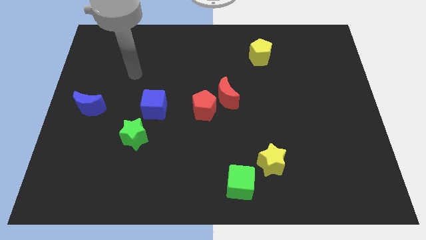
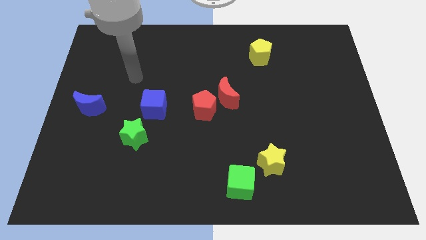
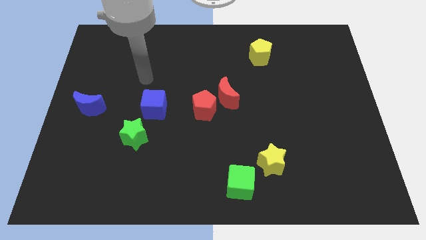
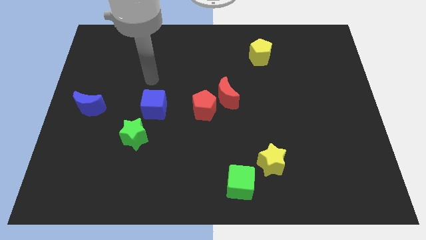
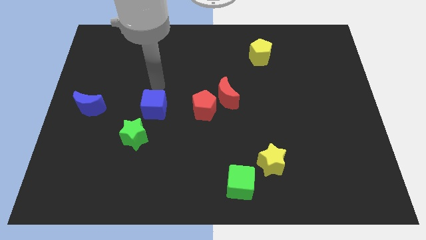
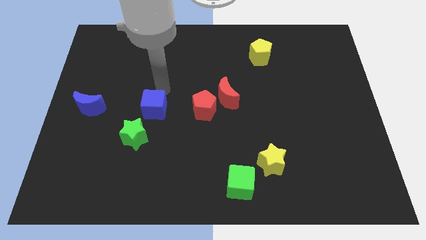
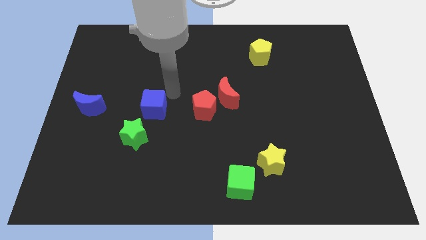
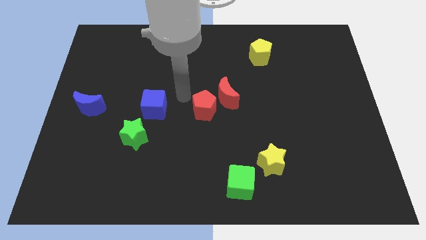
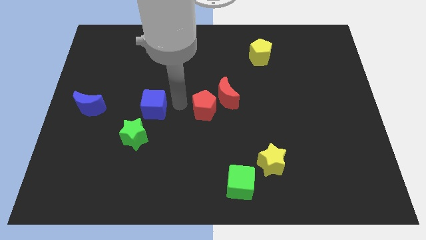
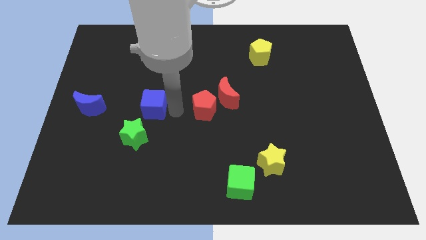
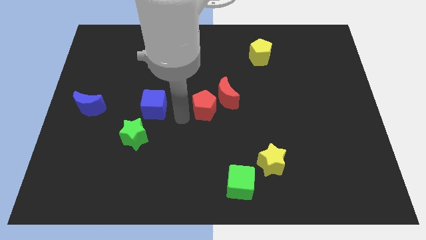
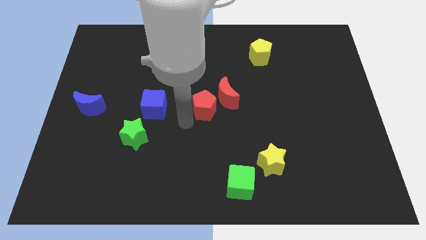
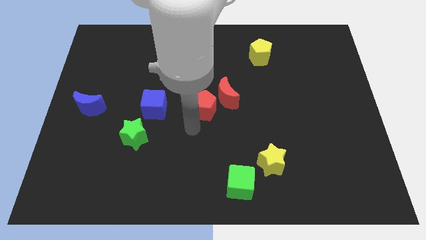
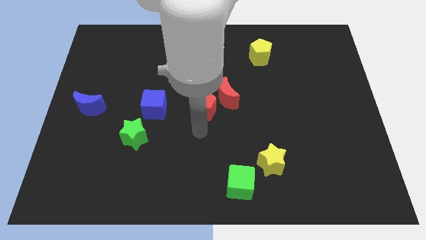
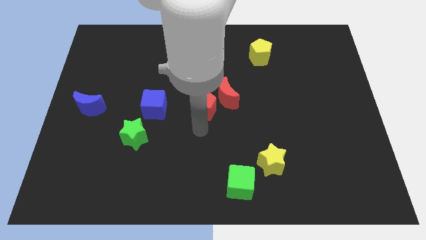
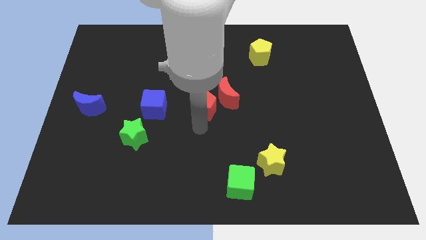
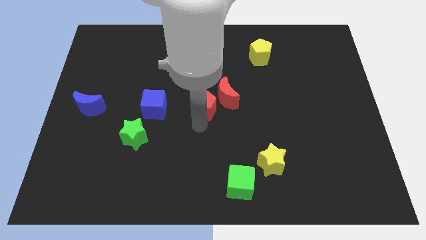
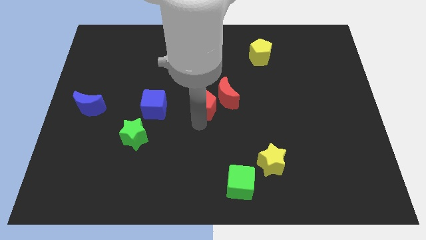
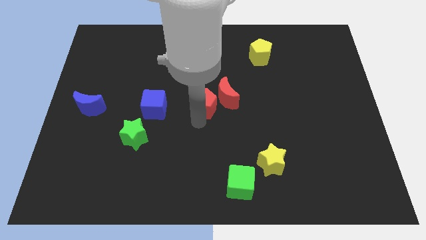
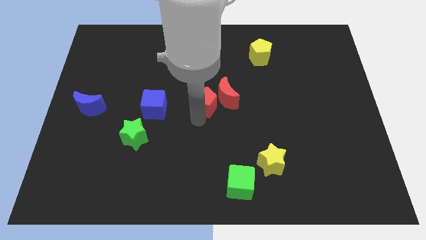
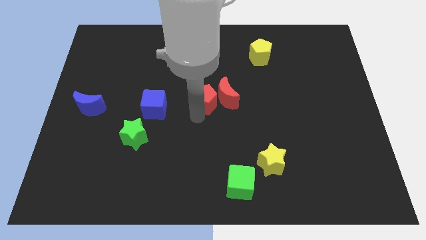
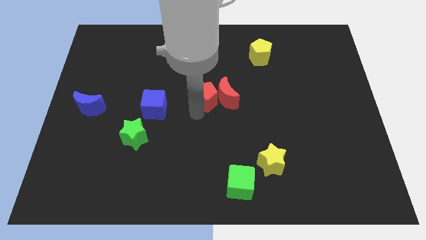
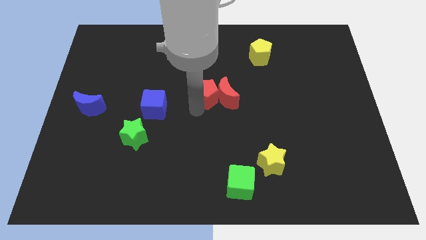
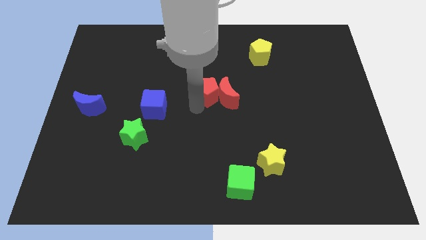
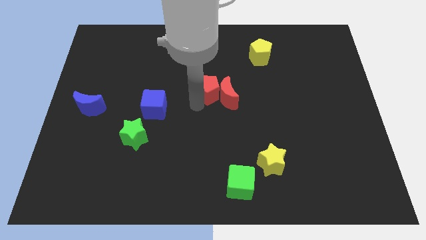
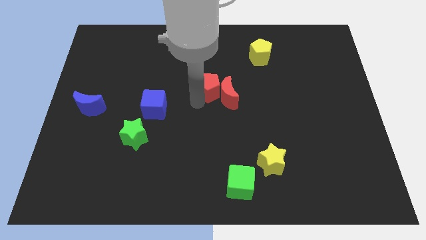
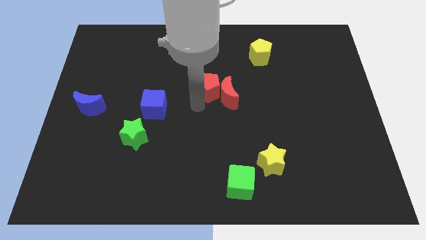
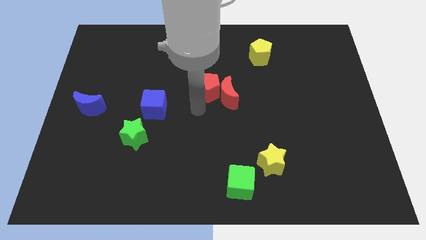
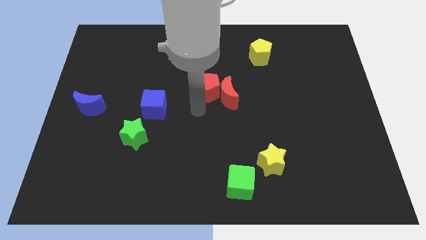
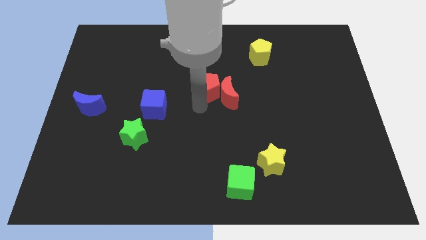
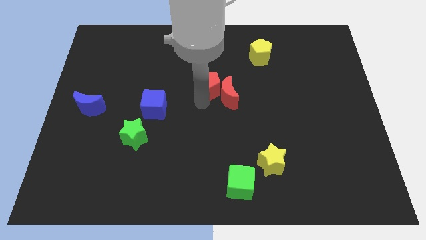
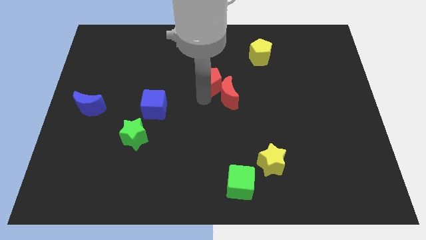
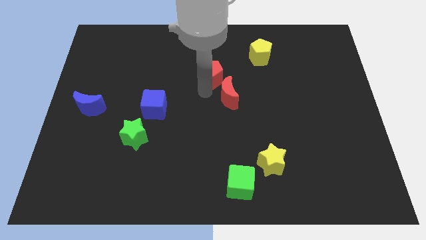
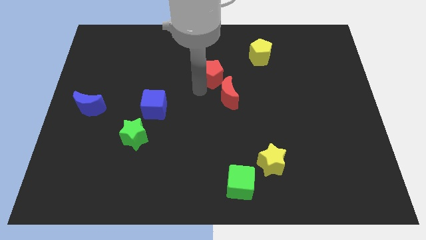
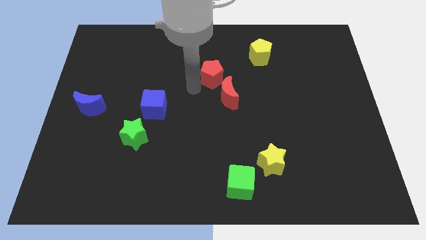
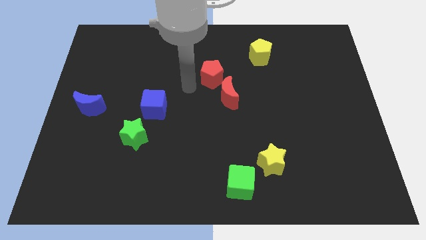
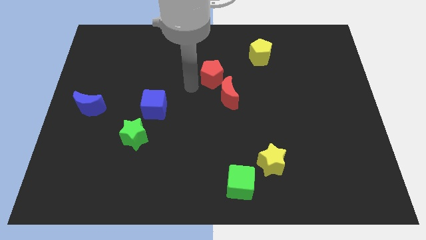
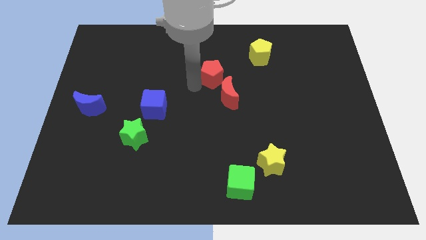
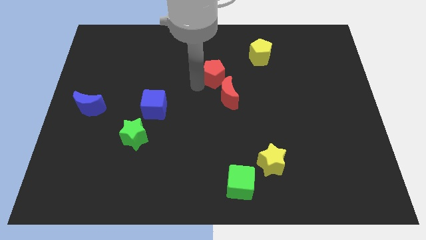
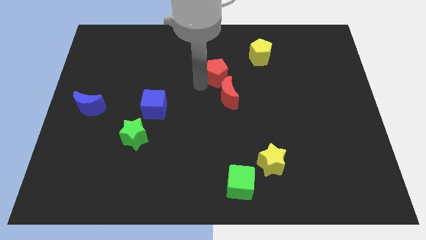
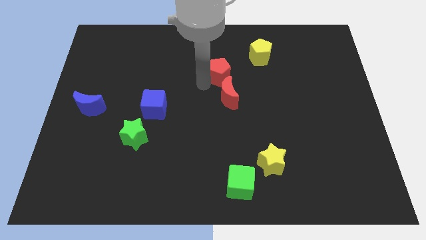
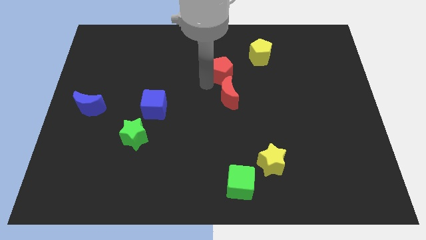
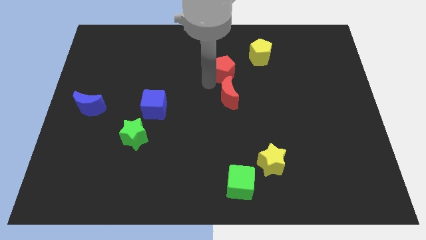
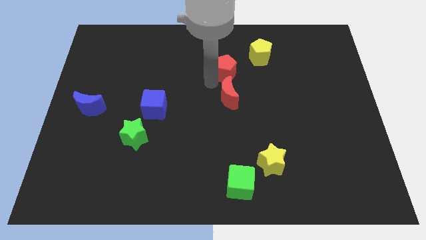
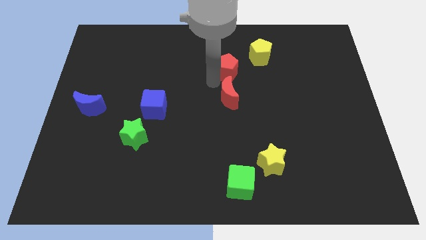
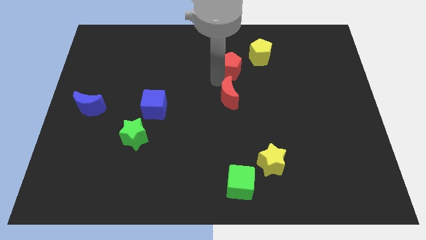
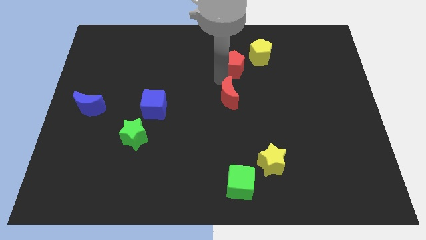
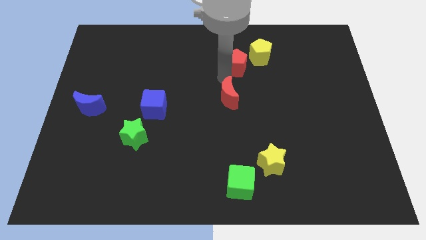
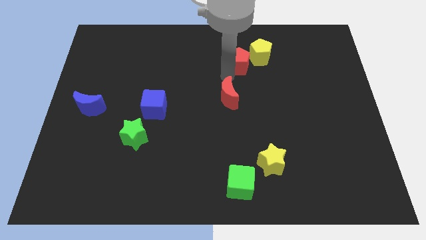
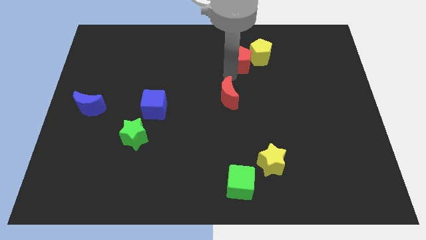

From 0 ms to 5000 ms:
move the red pentagon next to the yellow pentagon

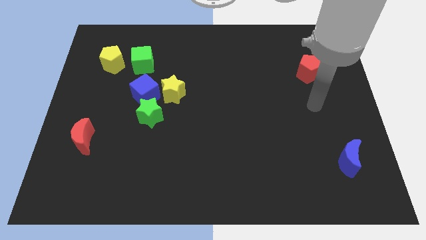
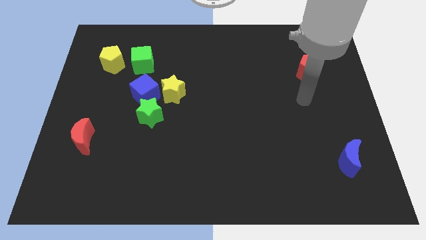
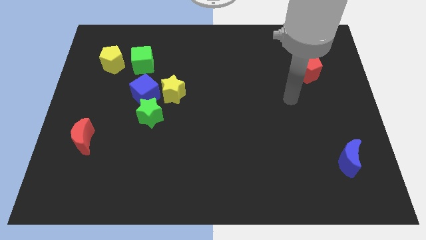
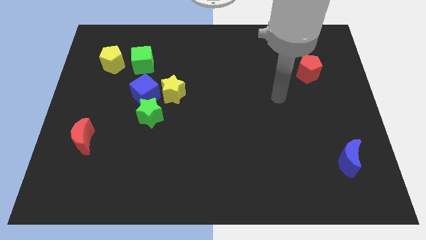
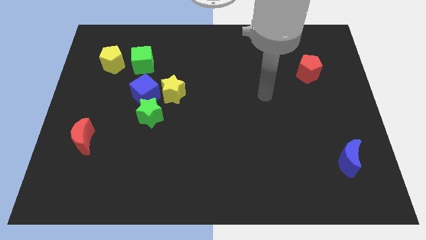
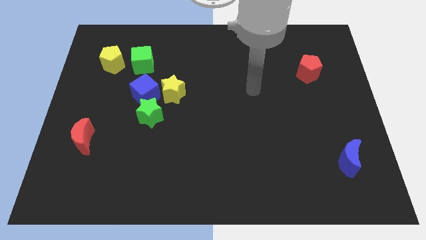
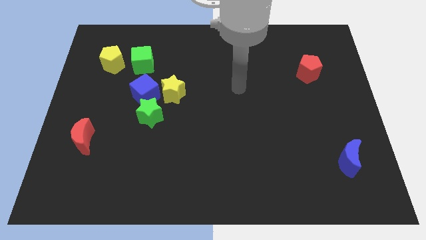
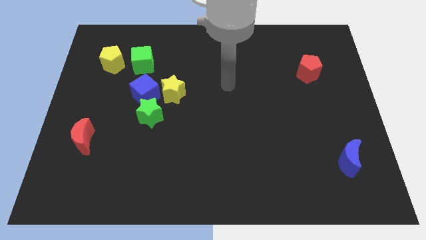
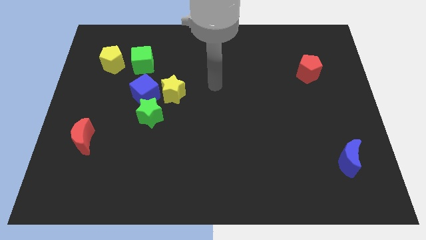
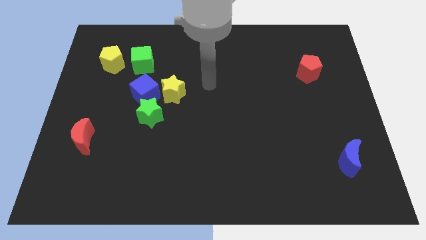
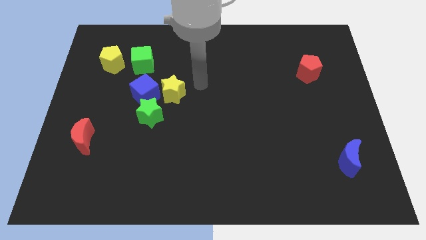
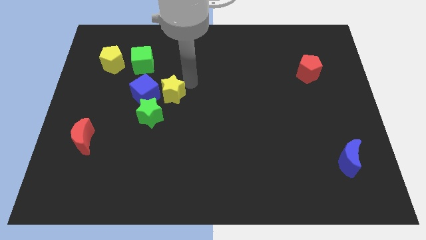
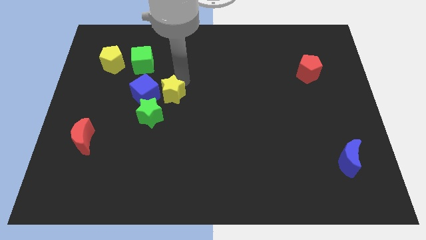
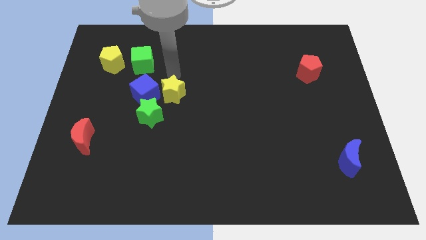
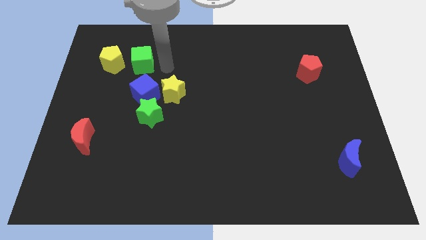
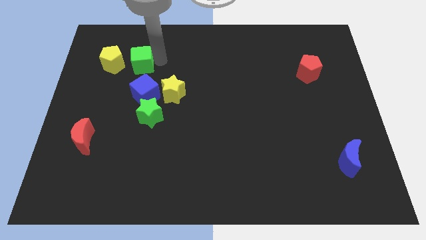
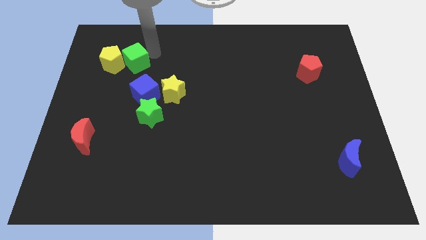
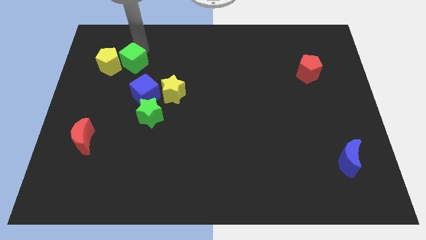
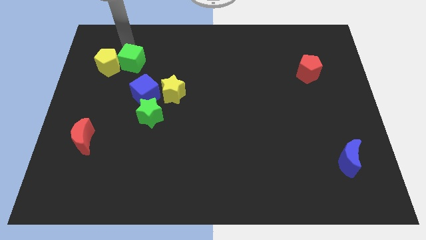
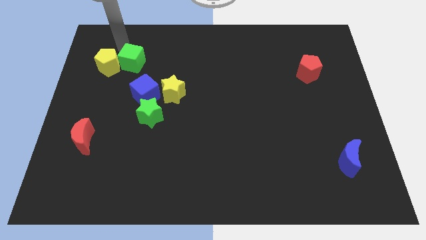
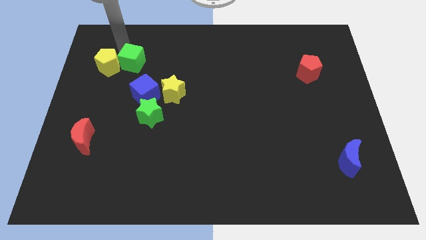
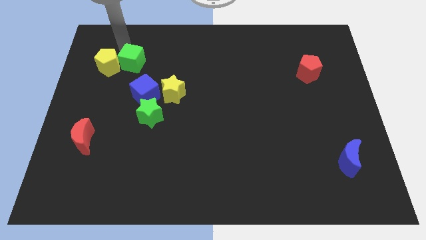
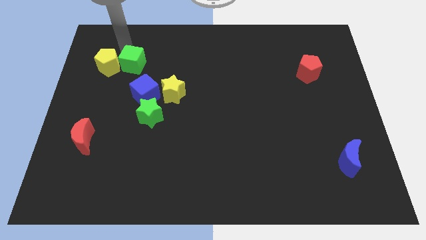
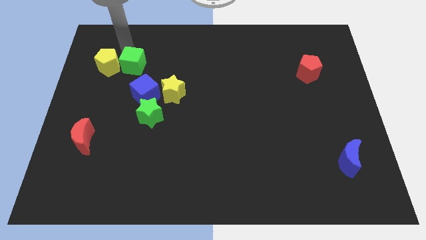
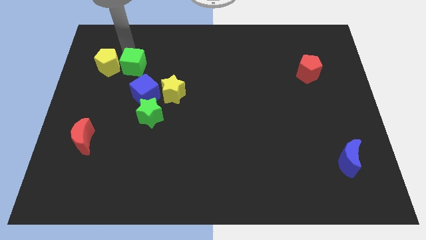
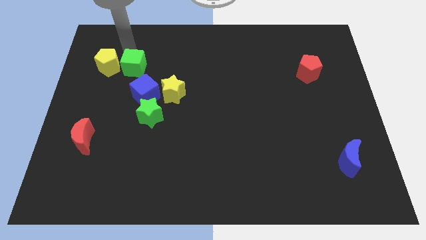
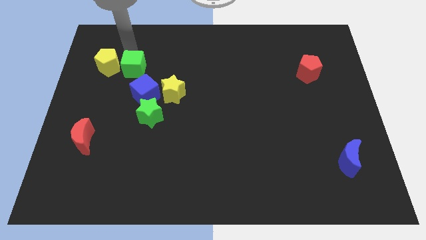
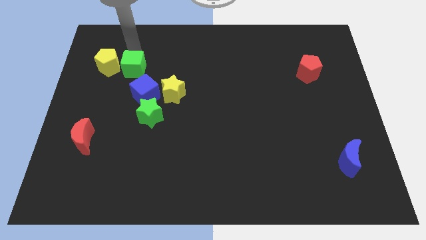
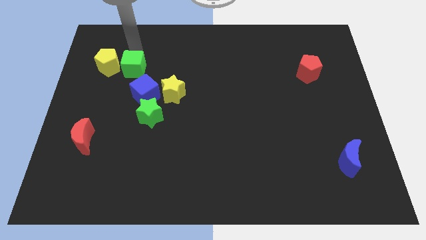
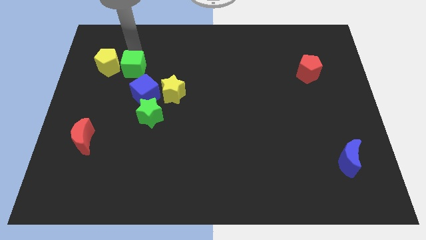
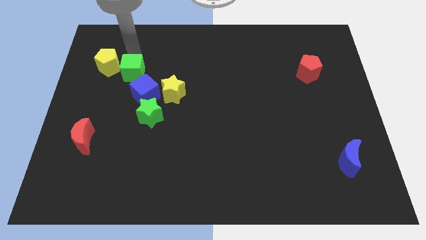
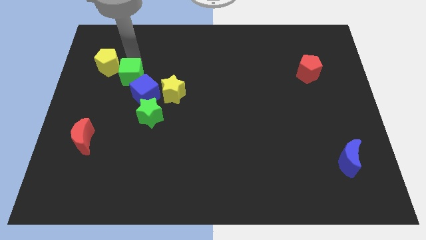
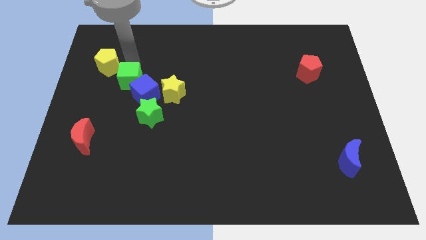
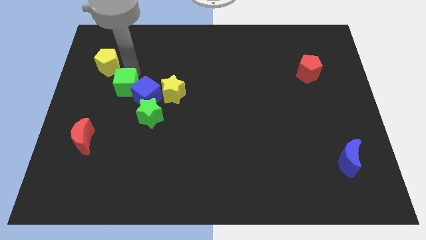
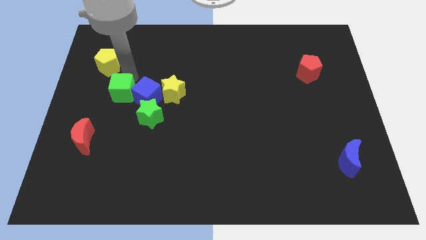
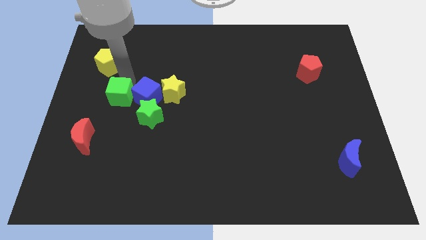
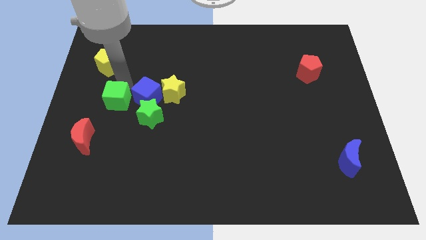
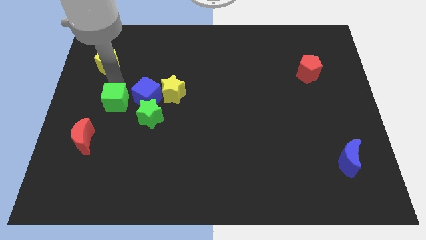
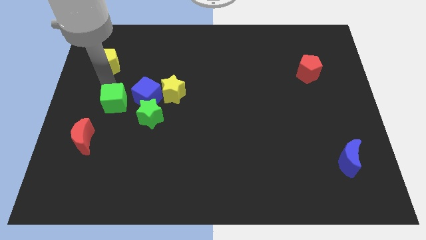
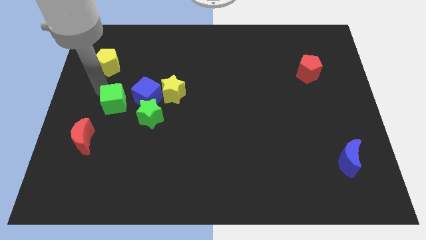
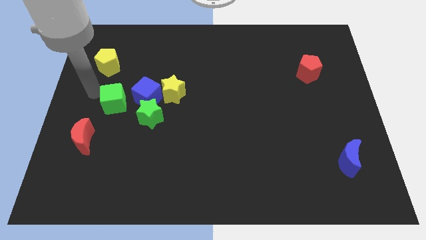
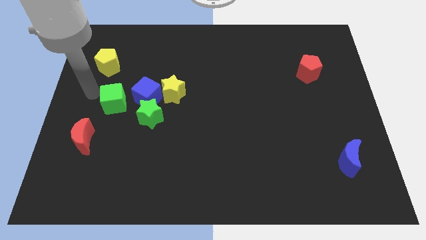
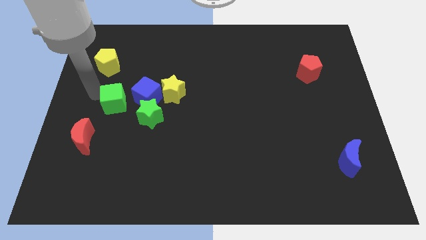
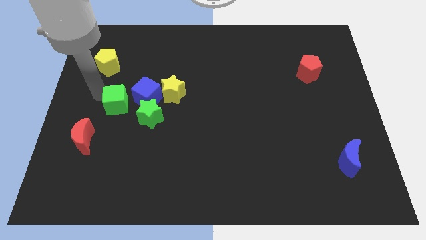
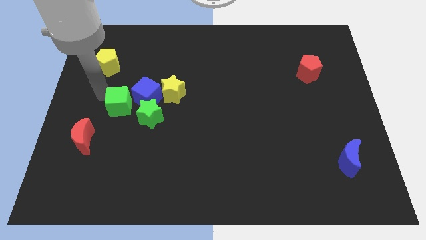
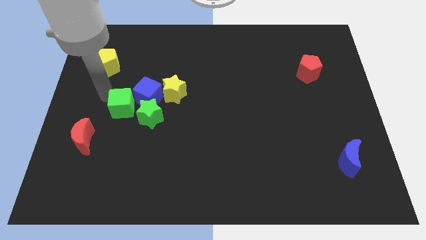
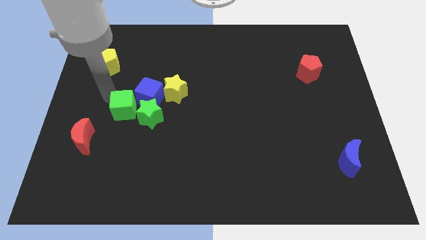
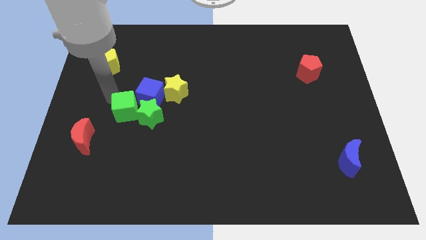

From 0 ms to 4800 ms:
push the green cube to the green star
